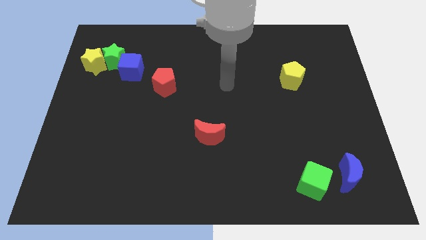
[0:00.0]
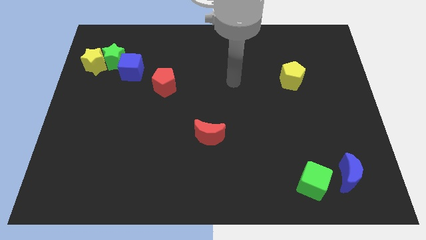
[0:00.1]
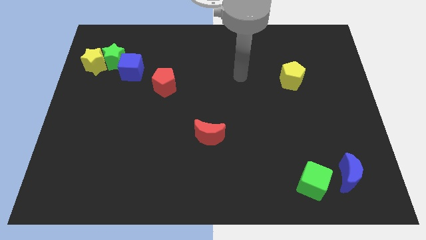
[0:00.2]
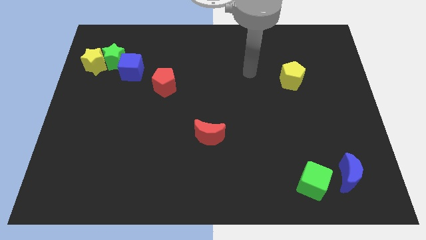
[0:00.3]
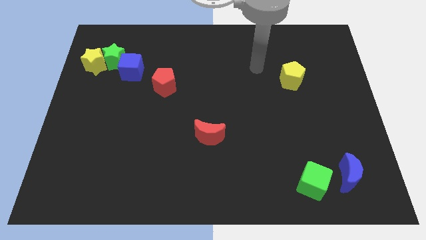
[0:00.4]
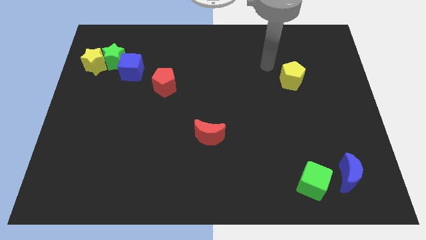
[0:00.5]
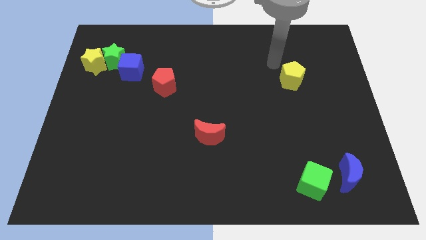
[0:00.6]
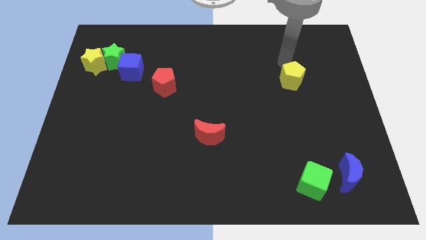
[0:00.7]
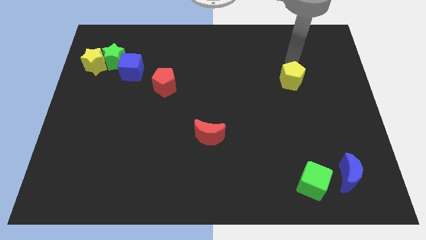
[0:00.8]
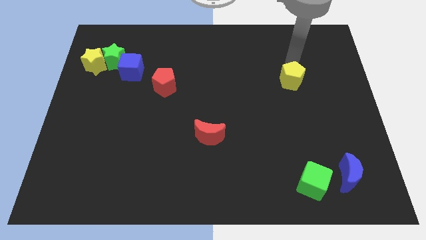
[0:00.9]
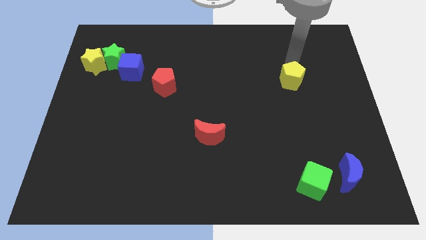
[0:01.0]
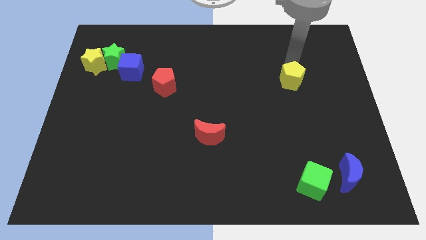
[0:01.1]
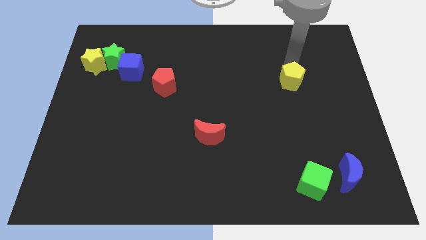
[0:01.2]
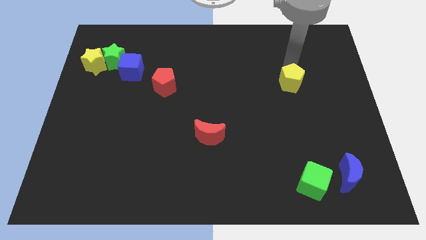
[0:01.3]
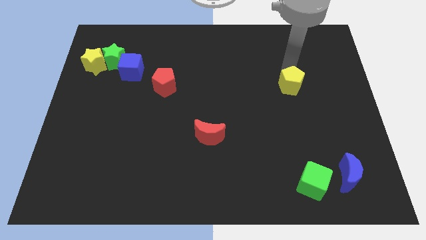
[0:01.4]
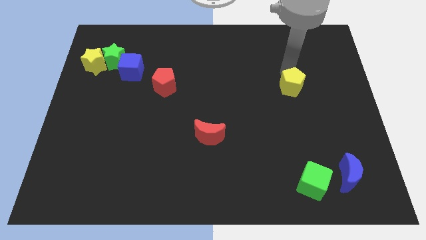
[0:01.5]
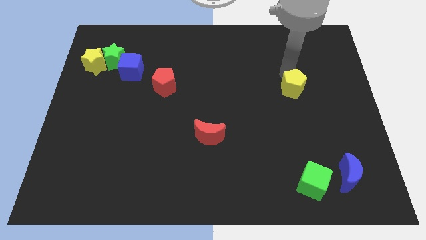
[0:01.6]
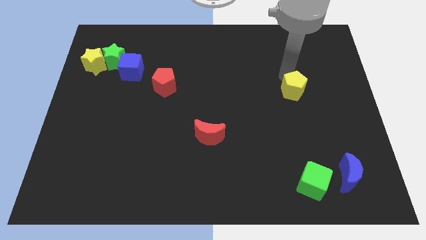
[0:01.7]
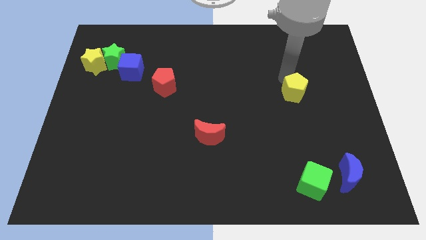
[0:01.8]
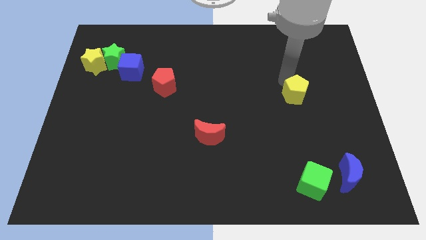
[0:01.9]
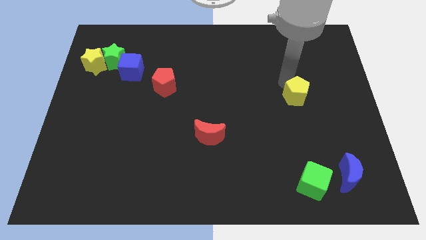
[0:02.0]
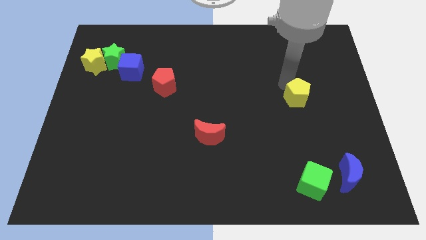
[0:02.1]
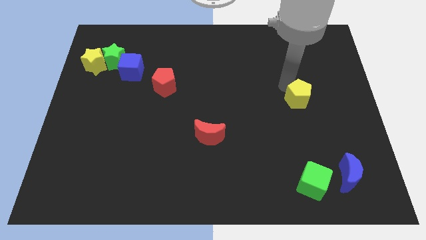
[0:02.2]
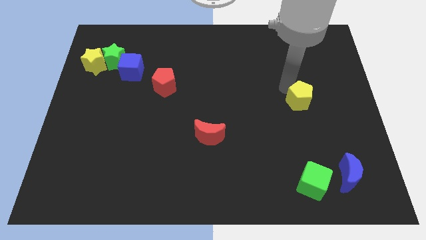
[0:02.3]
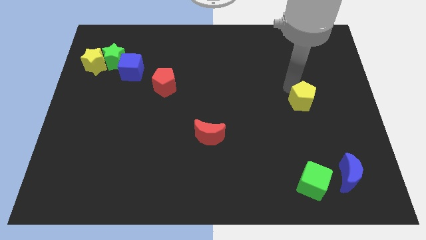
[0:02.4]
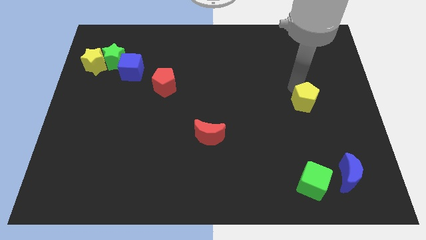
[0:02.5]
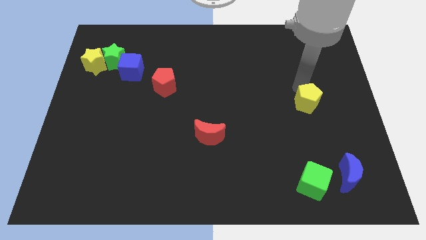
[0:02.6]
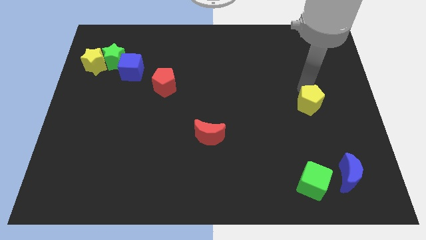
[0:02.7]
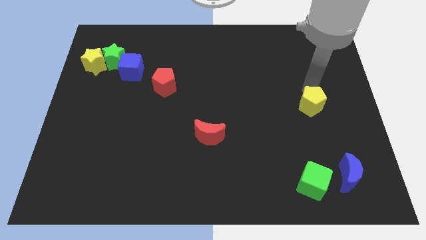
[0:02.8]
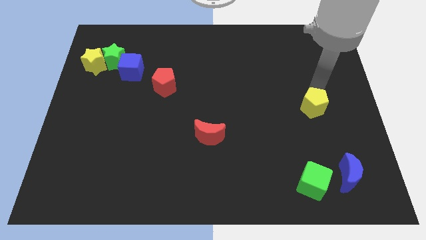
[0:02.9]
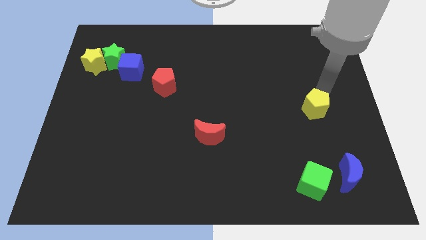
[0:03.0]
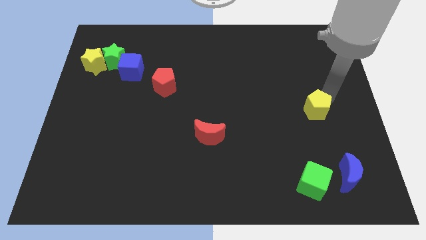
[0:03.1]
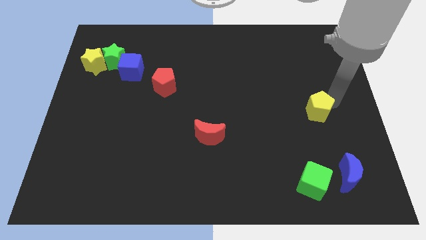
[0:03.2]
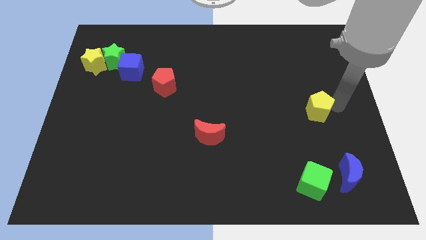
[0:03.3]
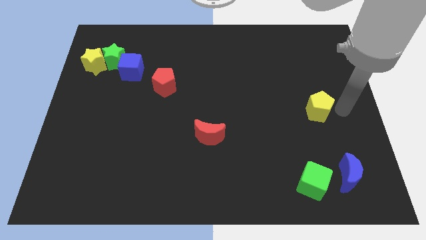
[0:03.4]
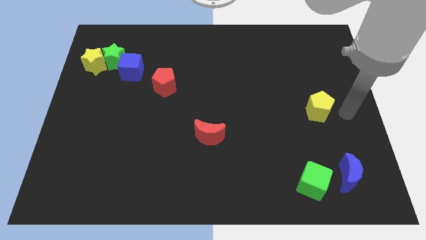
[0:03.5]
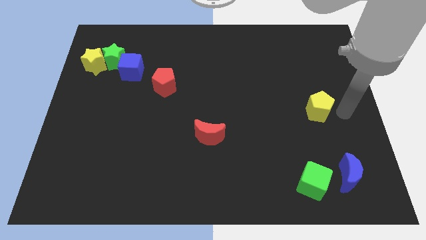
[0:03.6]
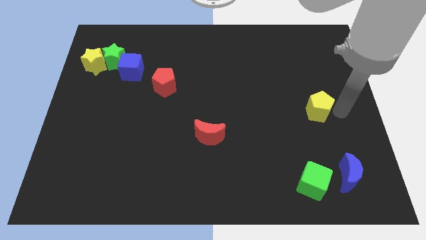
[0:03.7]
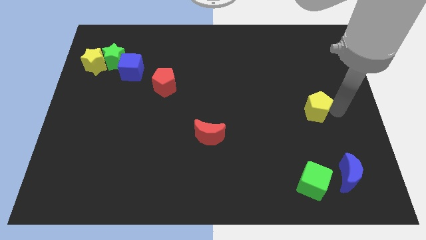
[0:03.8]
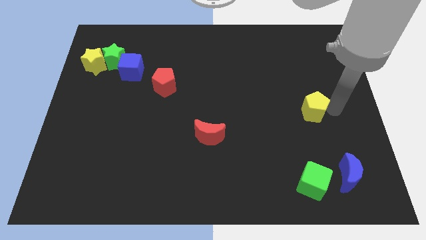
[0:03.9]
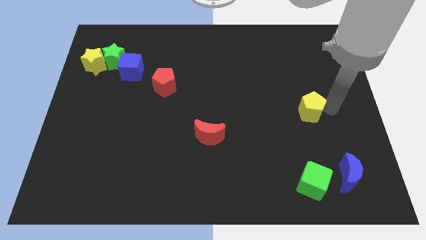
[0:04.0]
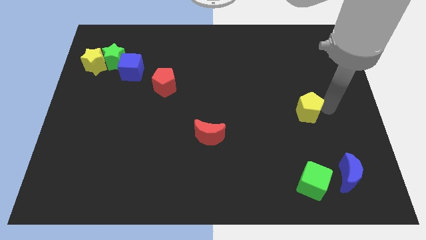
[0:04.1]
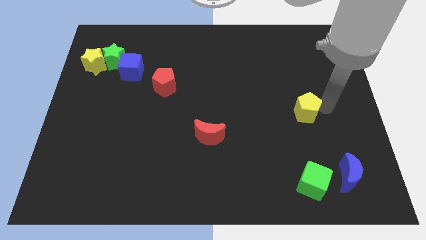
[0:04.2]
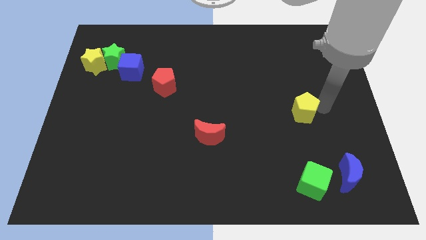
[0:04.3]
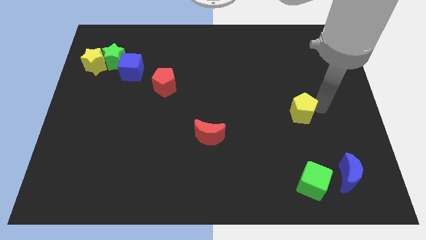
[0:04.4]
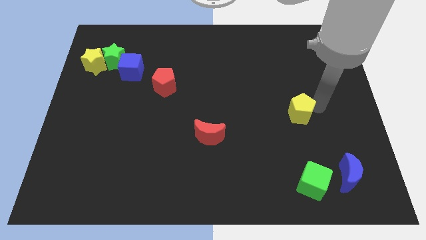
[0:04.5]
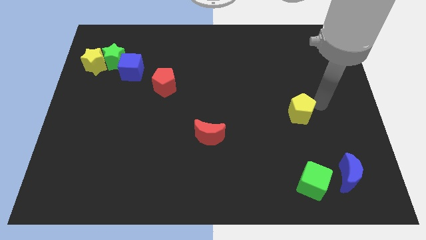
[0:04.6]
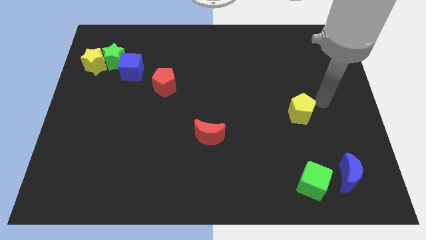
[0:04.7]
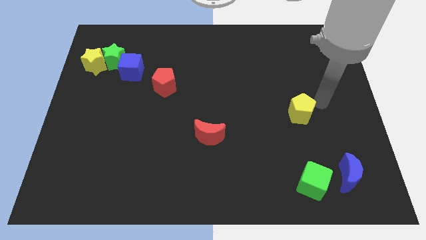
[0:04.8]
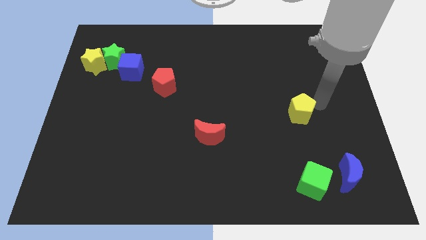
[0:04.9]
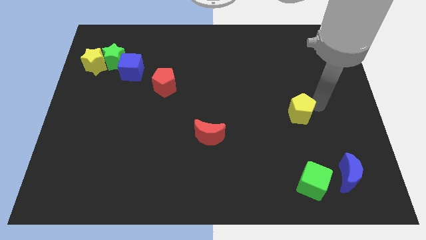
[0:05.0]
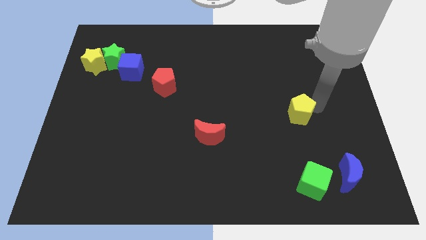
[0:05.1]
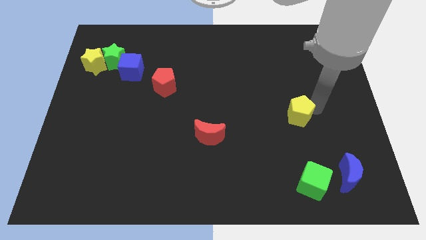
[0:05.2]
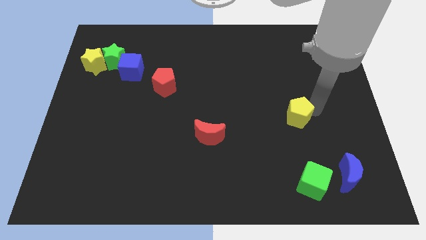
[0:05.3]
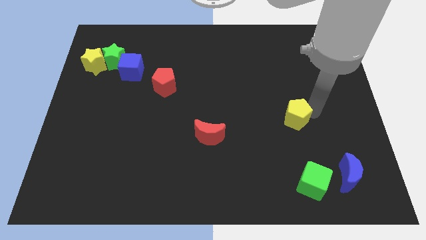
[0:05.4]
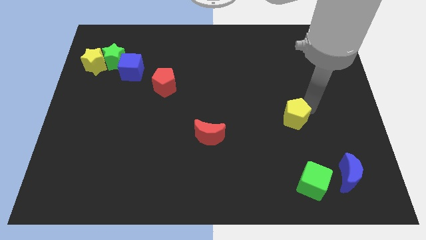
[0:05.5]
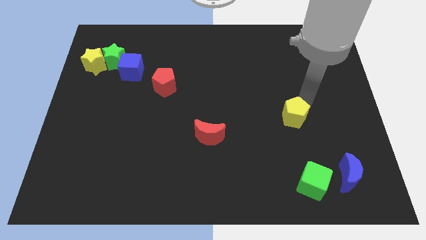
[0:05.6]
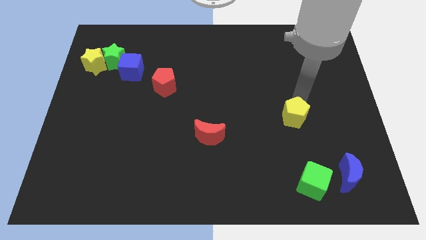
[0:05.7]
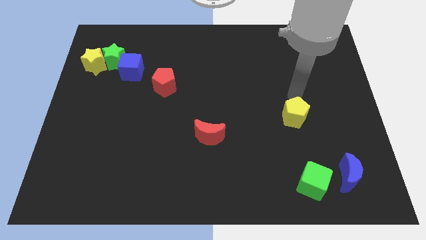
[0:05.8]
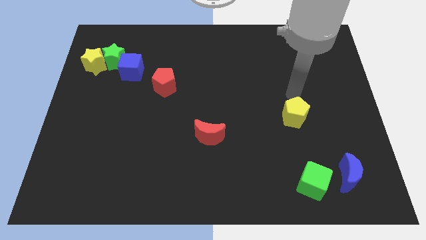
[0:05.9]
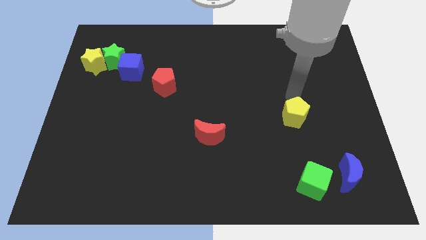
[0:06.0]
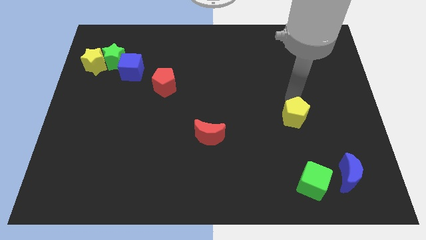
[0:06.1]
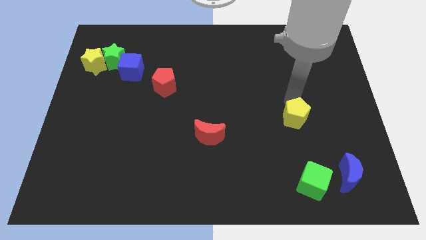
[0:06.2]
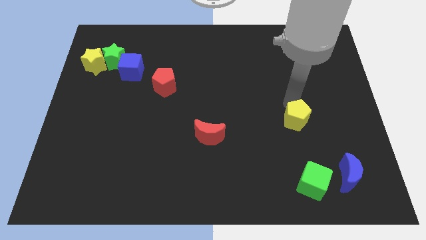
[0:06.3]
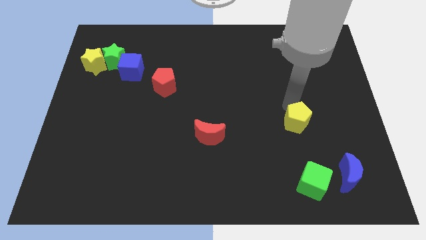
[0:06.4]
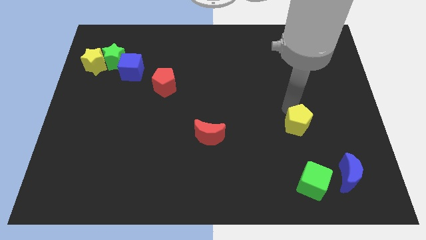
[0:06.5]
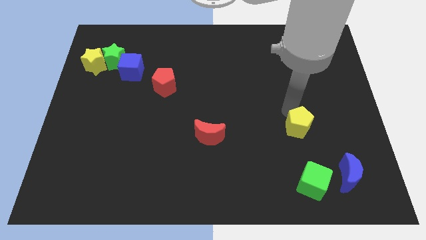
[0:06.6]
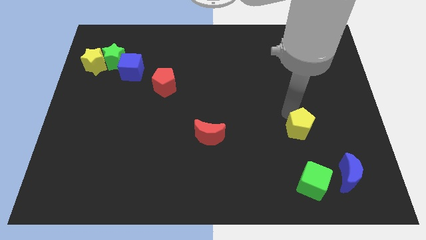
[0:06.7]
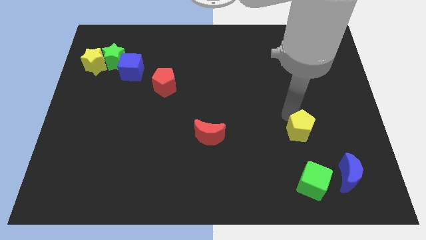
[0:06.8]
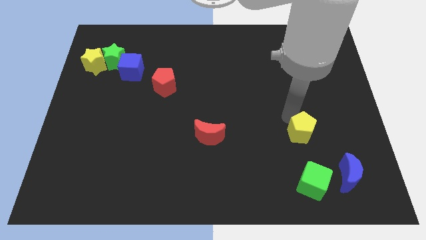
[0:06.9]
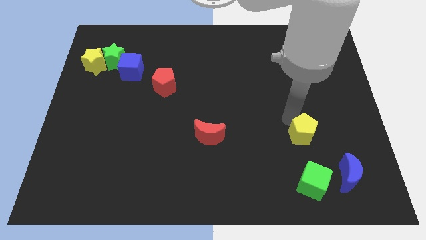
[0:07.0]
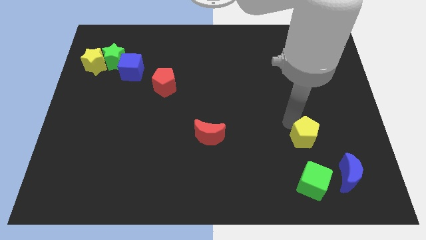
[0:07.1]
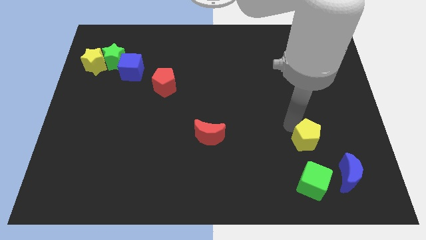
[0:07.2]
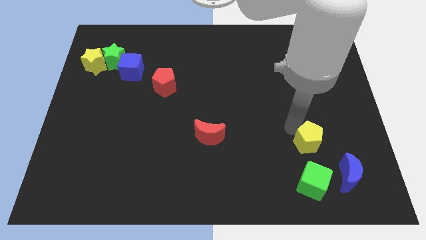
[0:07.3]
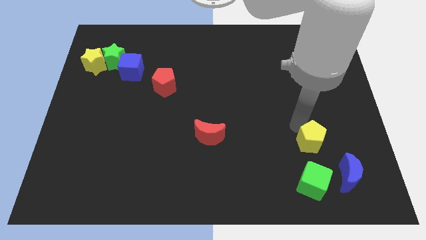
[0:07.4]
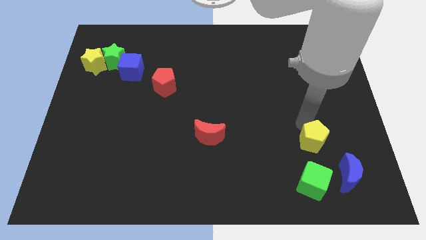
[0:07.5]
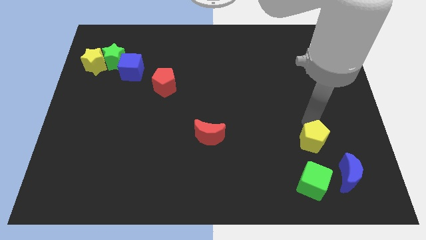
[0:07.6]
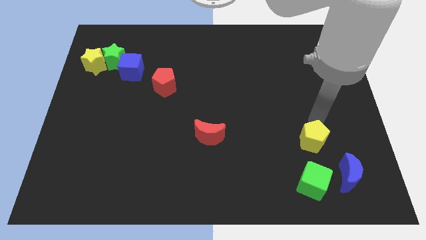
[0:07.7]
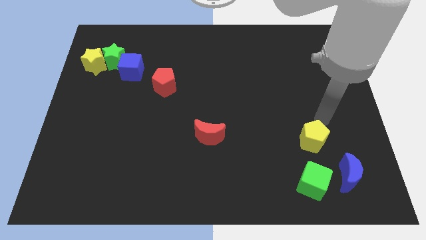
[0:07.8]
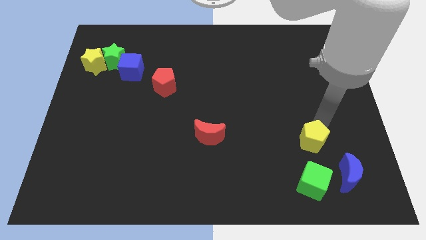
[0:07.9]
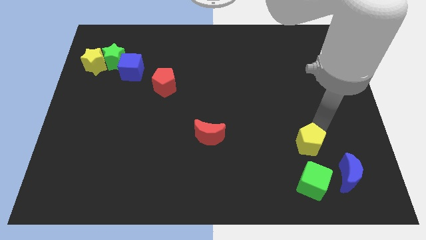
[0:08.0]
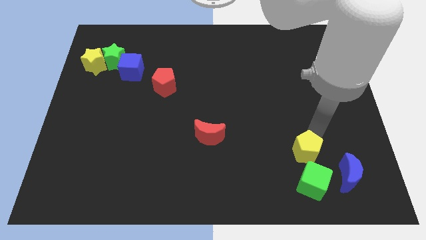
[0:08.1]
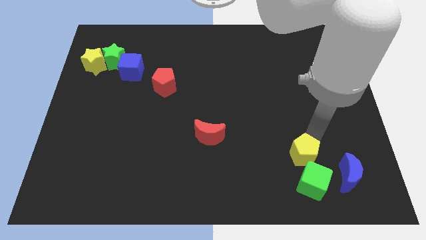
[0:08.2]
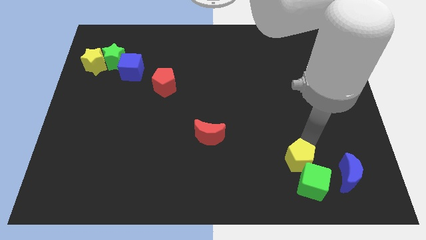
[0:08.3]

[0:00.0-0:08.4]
push the yellow pentagon close to the green cube
